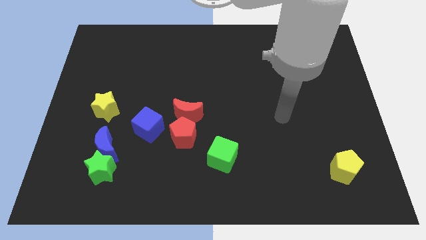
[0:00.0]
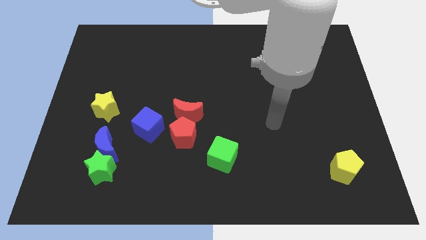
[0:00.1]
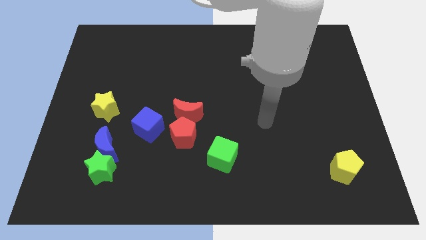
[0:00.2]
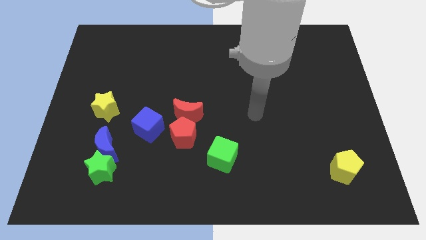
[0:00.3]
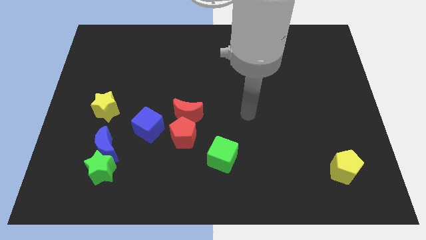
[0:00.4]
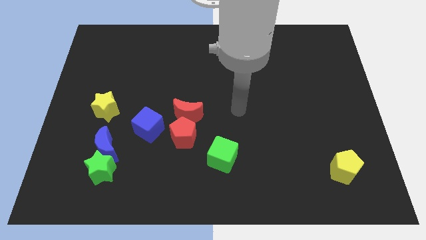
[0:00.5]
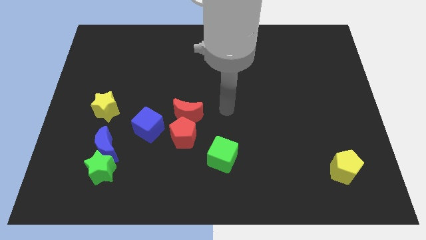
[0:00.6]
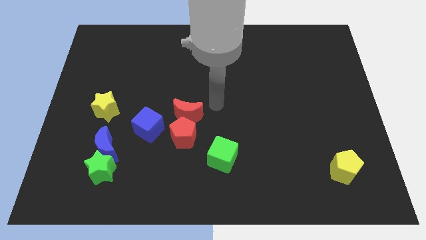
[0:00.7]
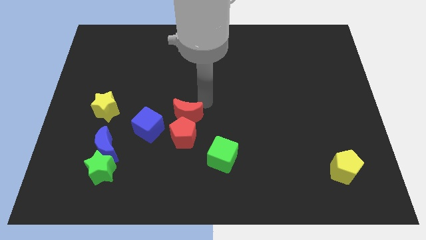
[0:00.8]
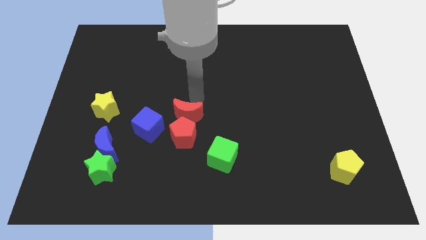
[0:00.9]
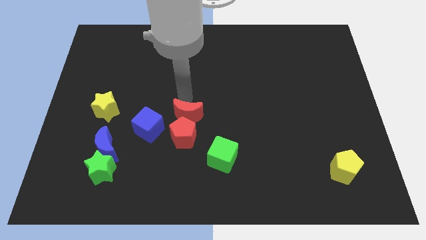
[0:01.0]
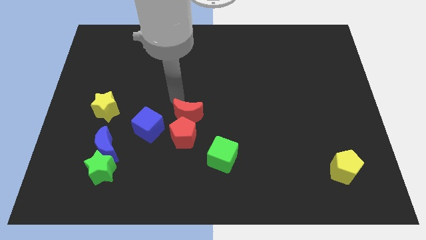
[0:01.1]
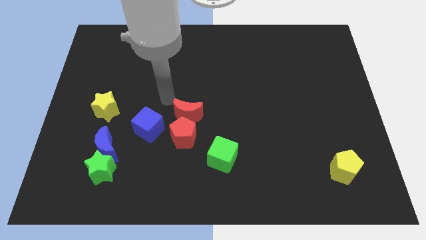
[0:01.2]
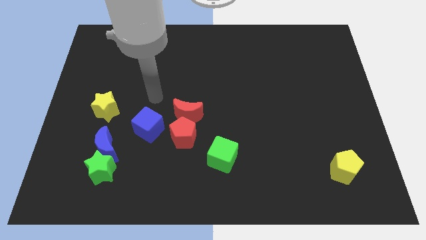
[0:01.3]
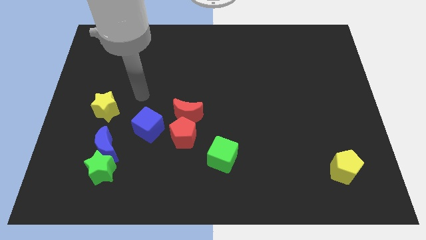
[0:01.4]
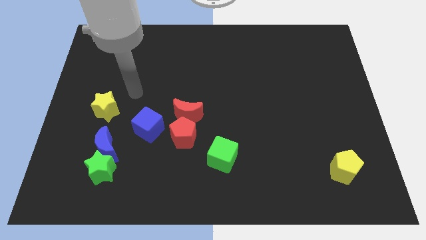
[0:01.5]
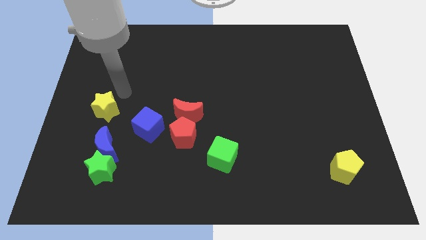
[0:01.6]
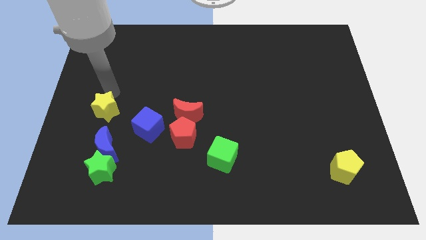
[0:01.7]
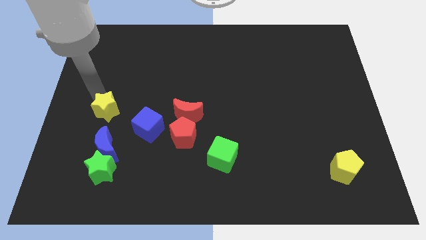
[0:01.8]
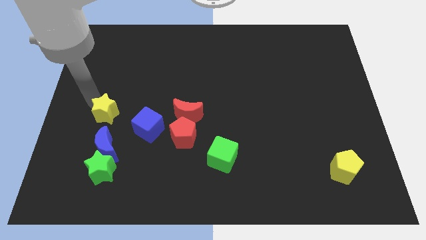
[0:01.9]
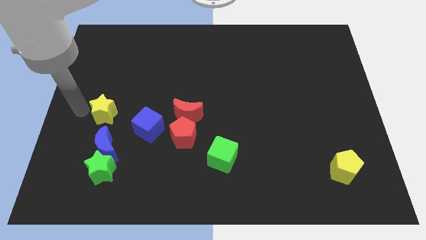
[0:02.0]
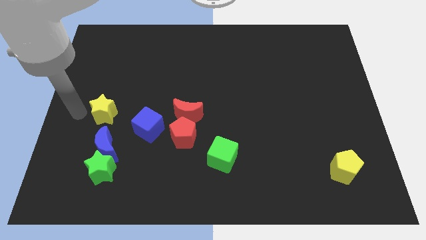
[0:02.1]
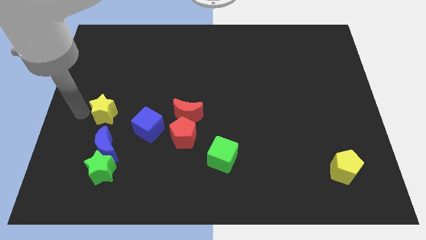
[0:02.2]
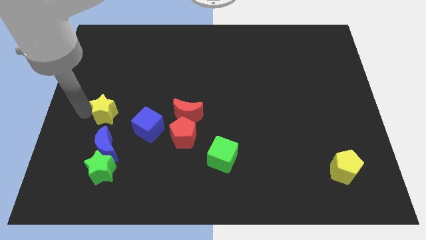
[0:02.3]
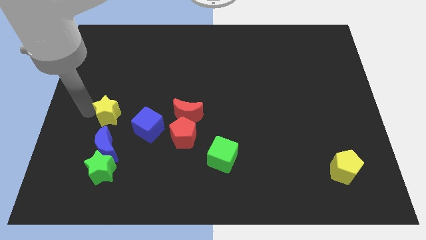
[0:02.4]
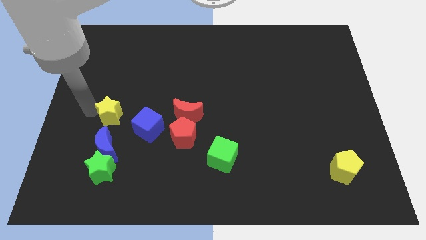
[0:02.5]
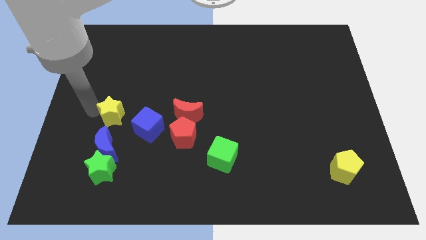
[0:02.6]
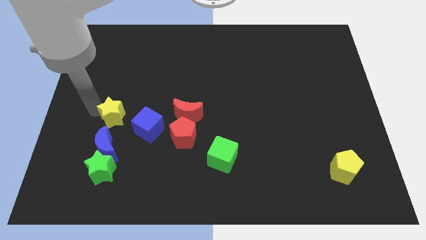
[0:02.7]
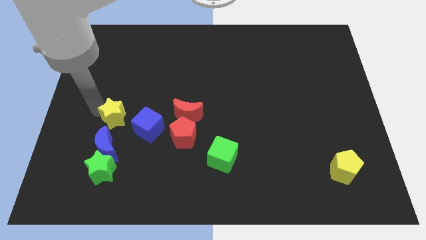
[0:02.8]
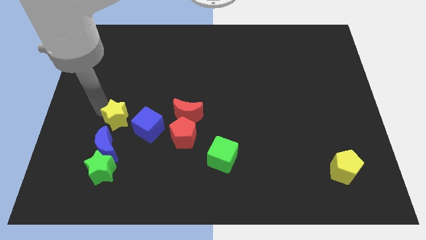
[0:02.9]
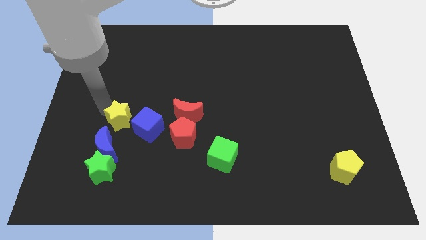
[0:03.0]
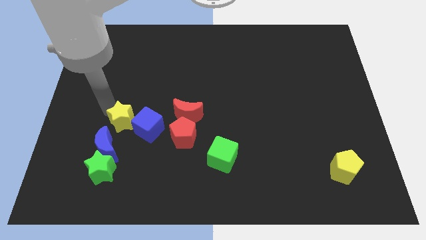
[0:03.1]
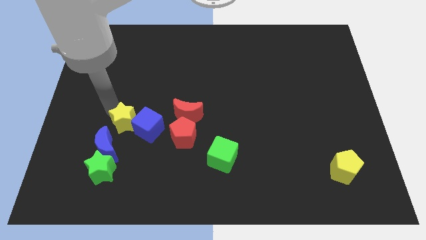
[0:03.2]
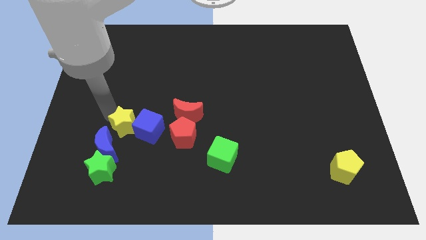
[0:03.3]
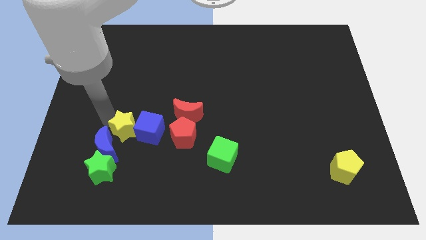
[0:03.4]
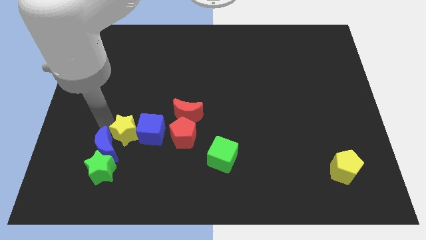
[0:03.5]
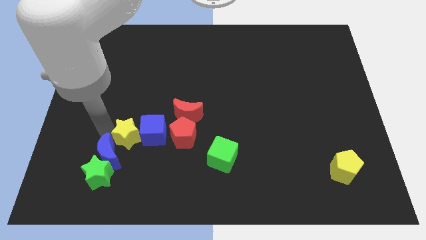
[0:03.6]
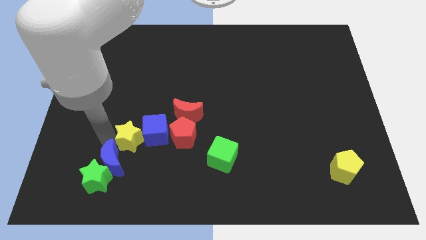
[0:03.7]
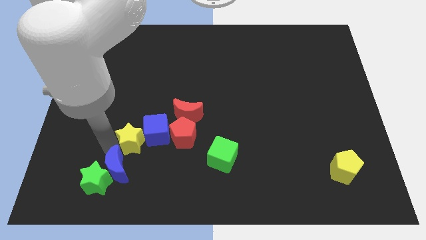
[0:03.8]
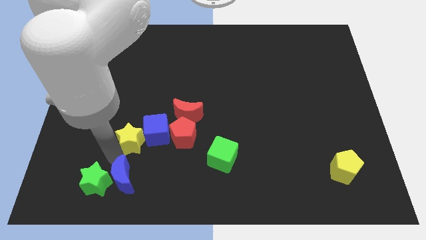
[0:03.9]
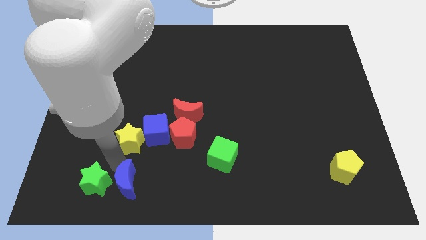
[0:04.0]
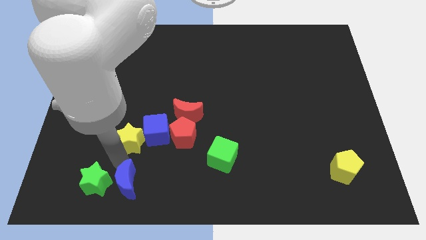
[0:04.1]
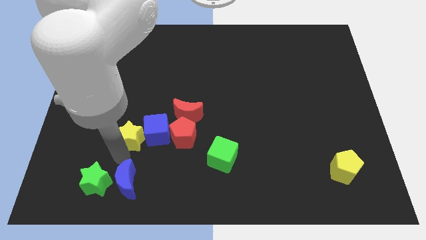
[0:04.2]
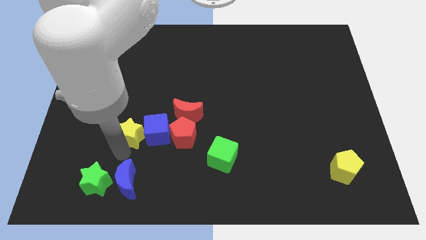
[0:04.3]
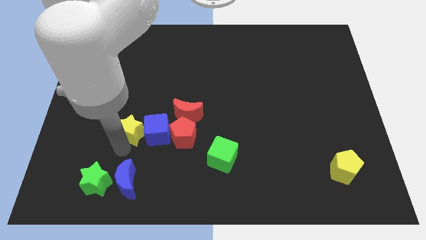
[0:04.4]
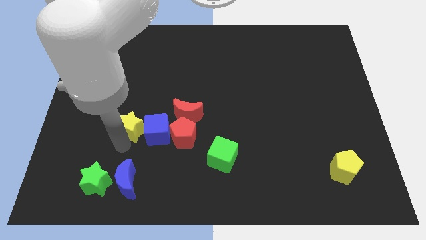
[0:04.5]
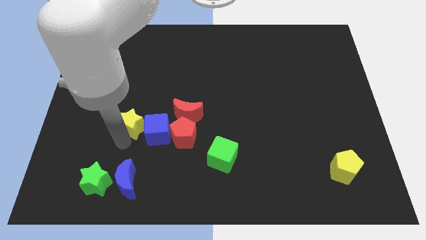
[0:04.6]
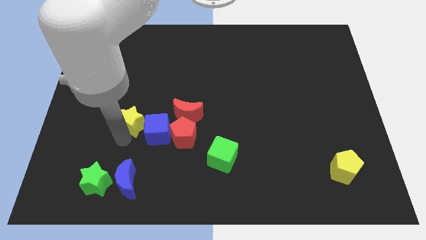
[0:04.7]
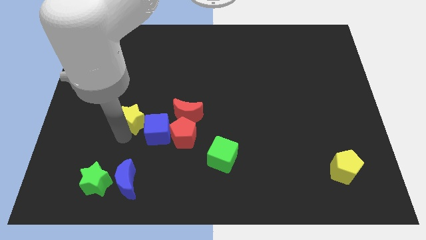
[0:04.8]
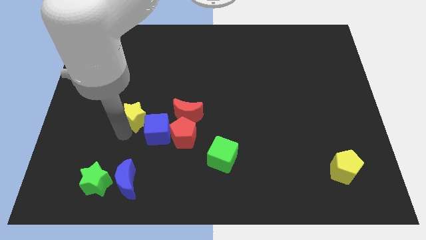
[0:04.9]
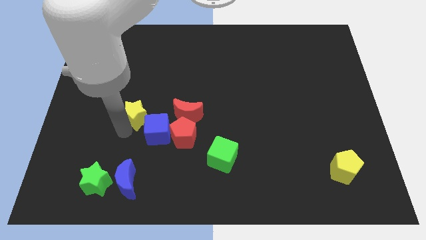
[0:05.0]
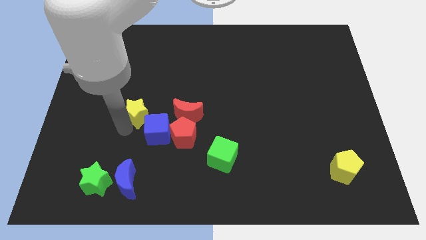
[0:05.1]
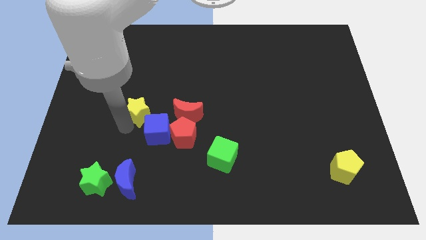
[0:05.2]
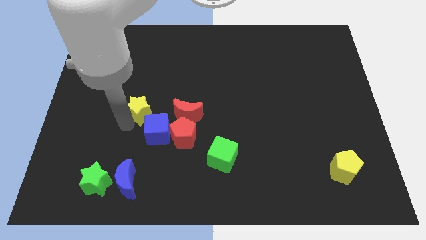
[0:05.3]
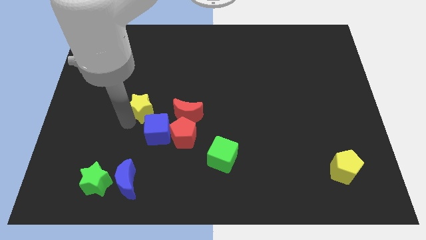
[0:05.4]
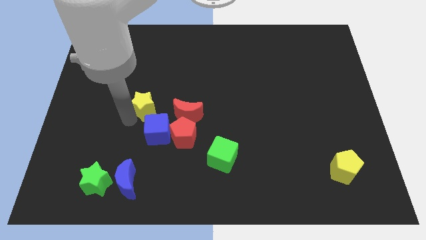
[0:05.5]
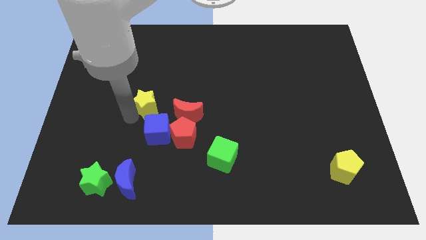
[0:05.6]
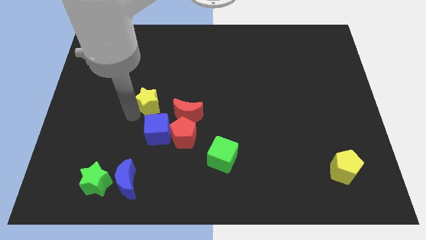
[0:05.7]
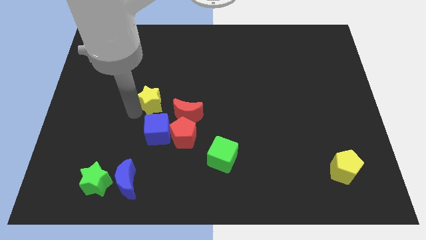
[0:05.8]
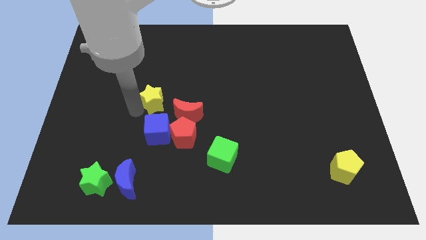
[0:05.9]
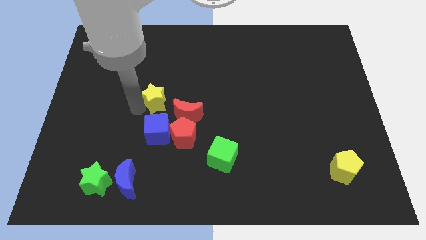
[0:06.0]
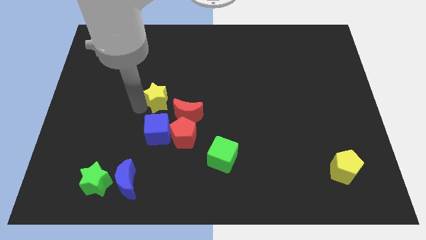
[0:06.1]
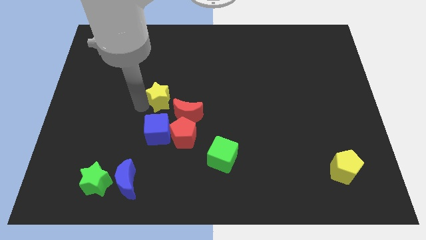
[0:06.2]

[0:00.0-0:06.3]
slide the yellow star to the middle
